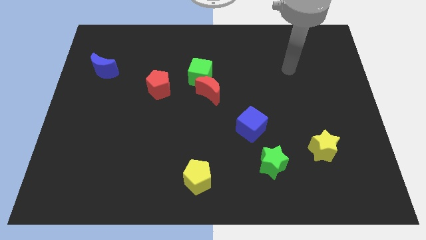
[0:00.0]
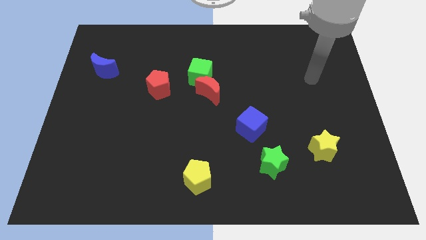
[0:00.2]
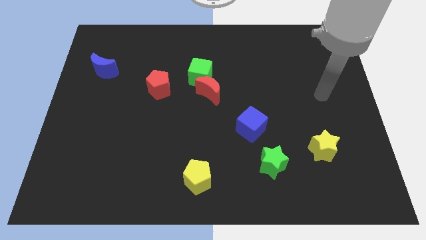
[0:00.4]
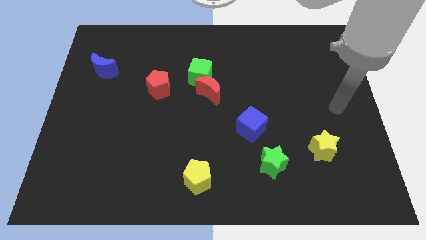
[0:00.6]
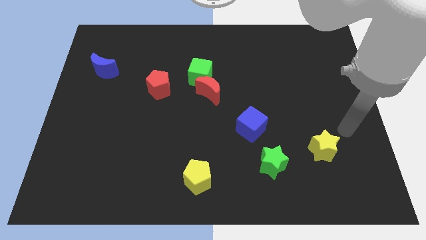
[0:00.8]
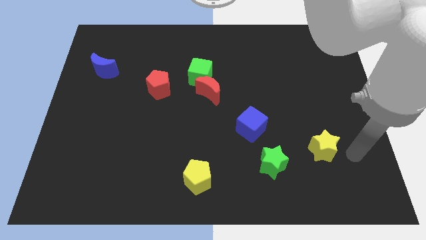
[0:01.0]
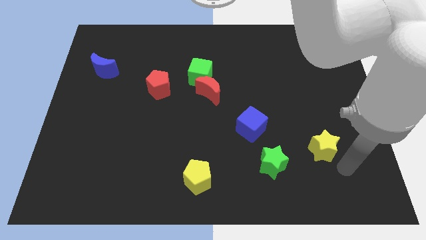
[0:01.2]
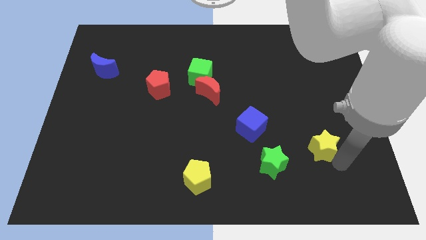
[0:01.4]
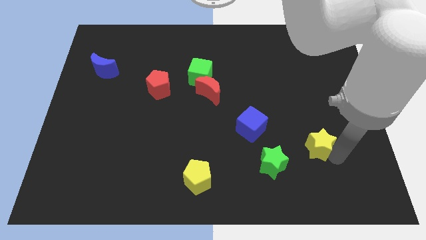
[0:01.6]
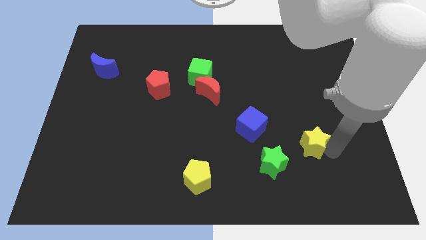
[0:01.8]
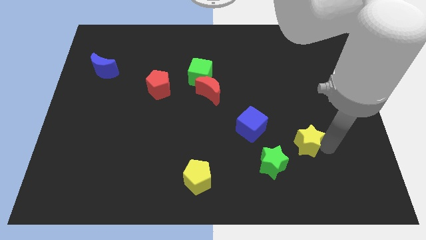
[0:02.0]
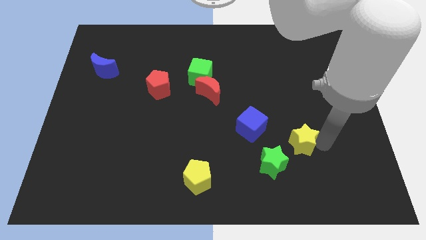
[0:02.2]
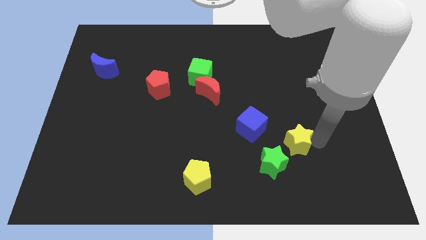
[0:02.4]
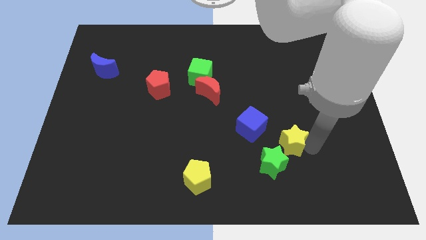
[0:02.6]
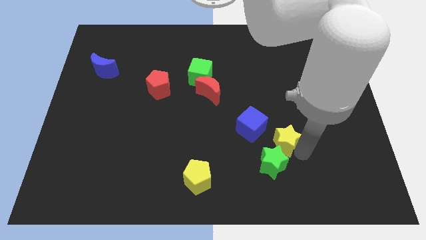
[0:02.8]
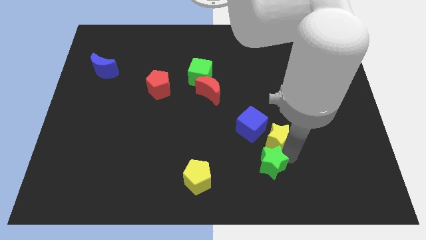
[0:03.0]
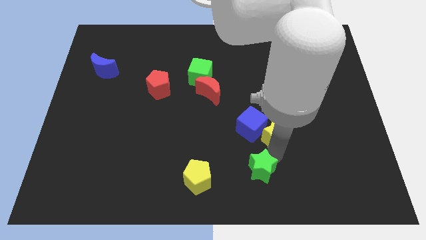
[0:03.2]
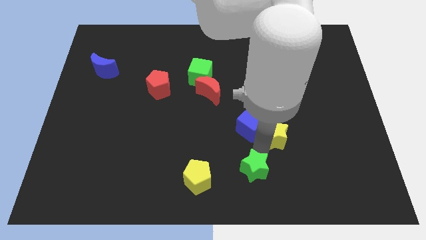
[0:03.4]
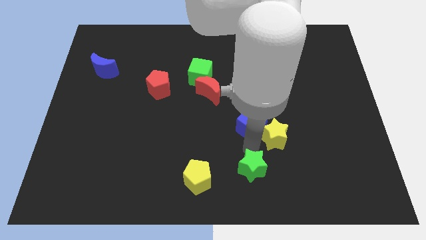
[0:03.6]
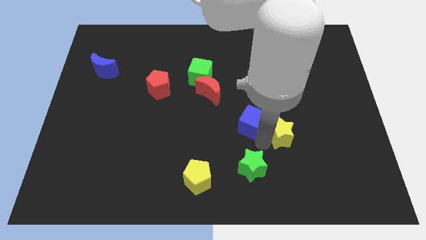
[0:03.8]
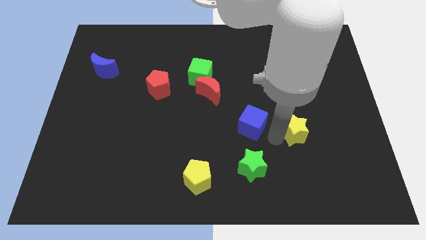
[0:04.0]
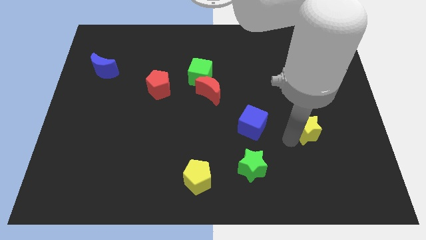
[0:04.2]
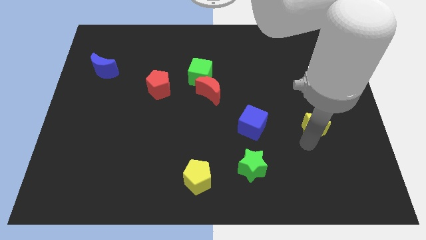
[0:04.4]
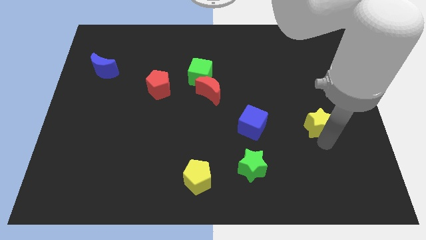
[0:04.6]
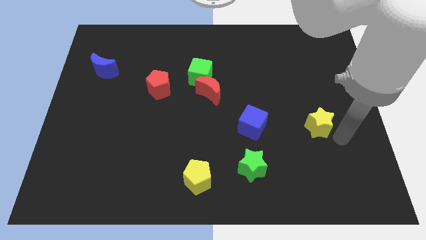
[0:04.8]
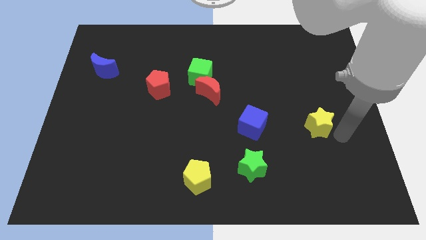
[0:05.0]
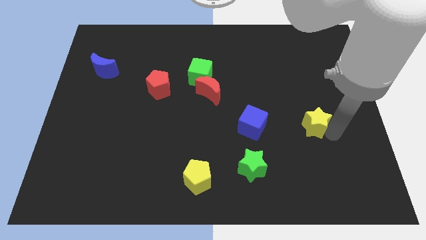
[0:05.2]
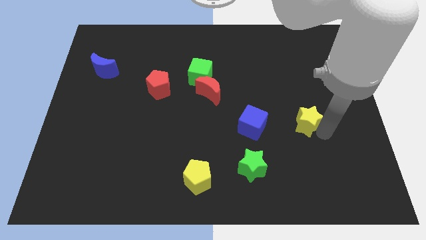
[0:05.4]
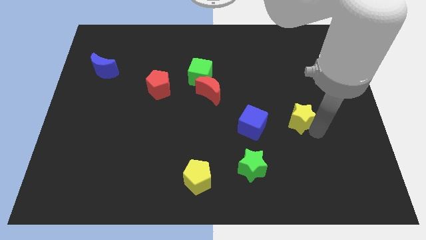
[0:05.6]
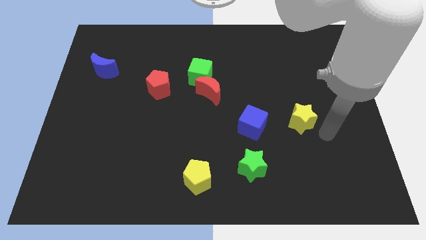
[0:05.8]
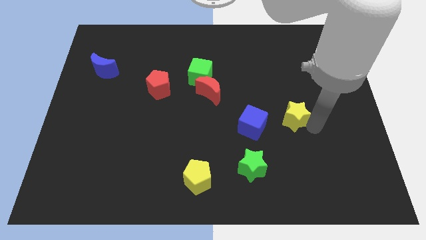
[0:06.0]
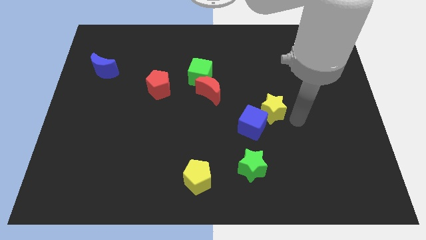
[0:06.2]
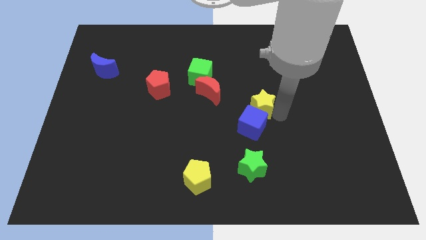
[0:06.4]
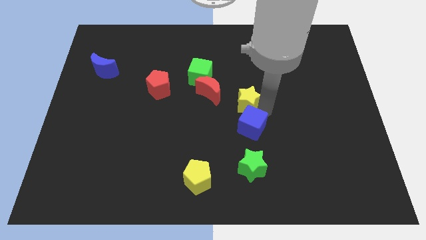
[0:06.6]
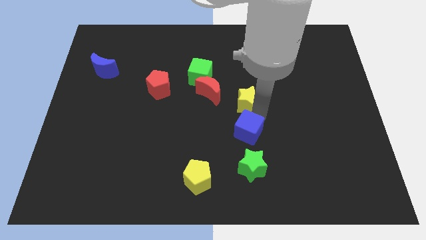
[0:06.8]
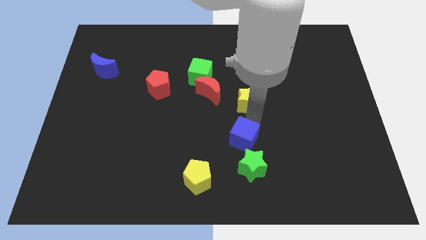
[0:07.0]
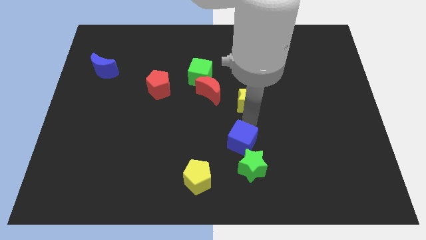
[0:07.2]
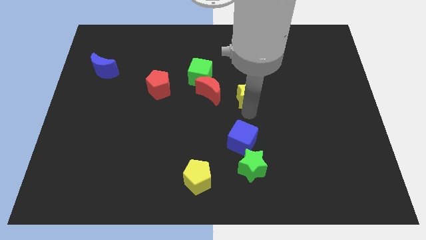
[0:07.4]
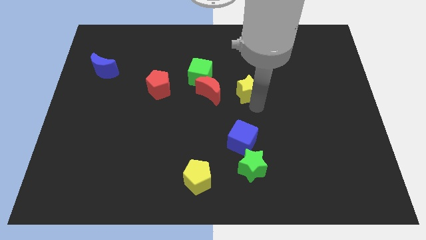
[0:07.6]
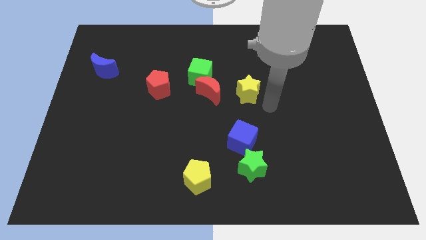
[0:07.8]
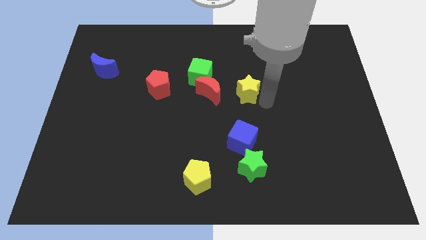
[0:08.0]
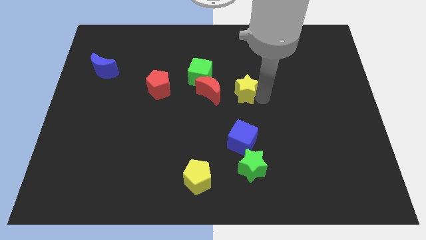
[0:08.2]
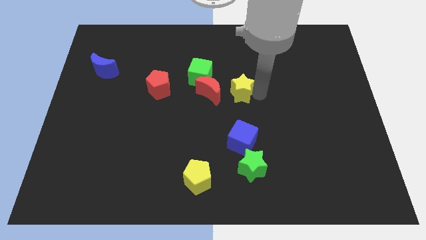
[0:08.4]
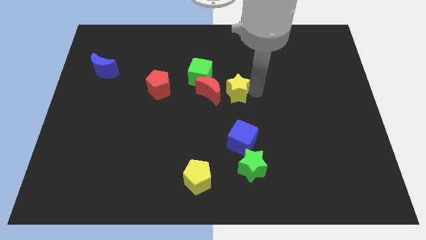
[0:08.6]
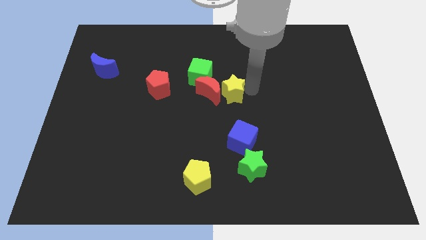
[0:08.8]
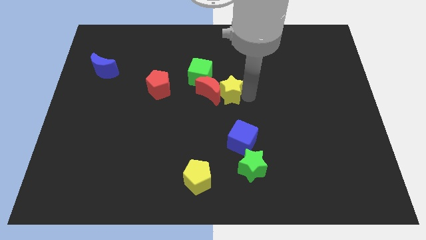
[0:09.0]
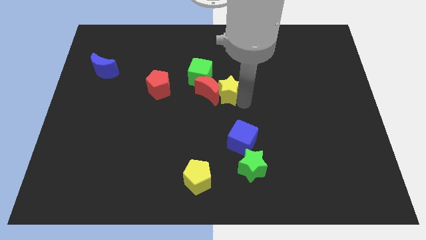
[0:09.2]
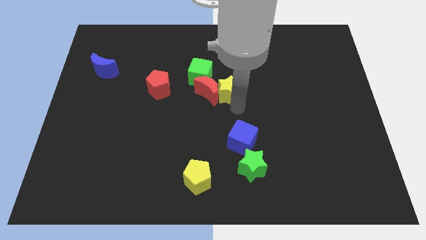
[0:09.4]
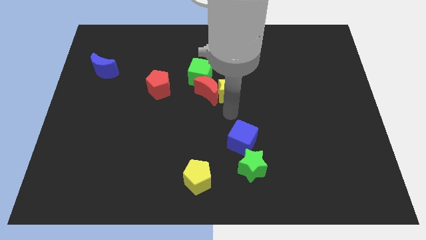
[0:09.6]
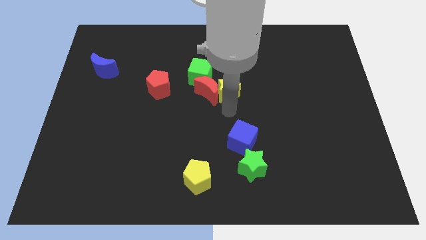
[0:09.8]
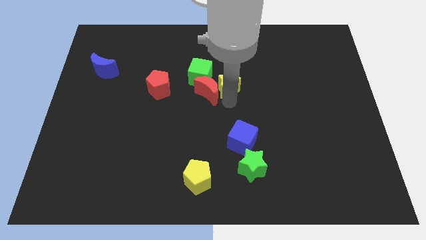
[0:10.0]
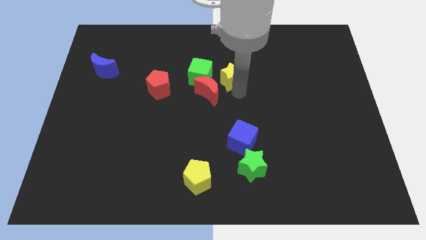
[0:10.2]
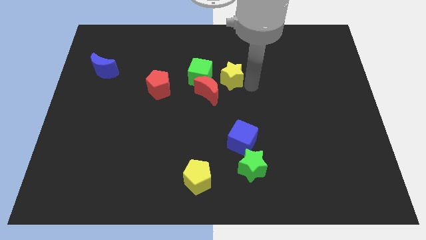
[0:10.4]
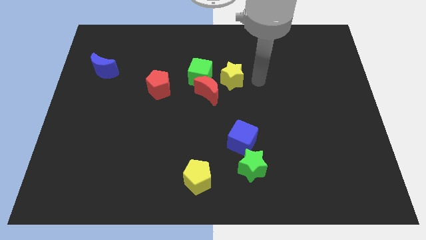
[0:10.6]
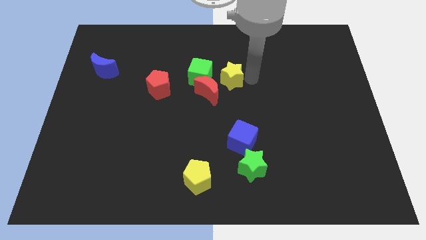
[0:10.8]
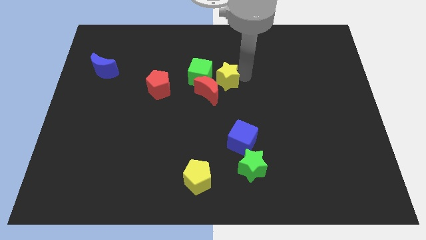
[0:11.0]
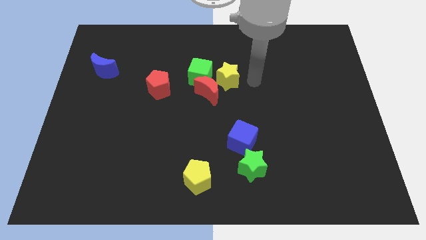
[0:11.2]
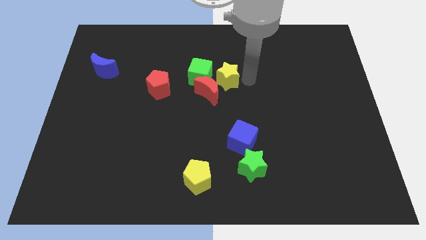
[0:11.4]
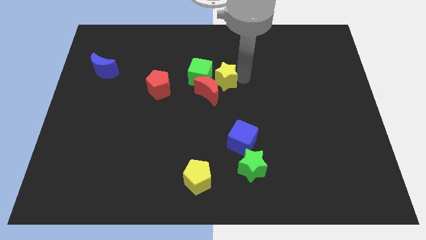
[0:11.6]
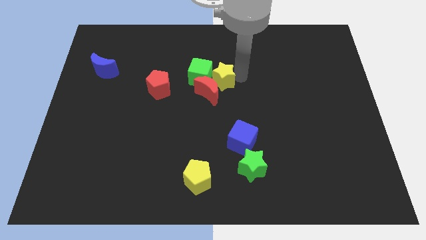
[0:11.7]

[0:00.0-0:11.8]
push the yellow star to the green cube

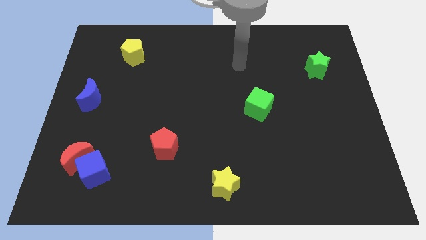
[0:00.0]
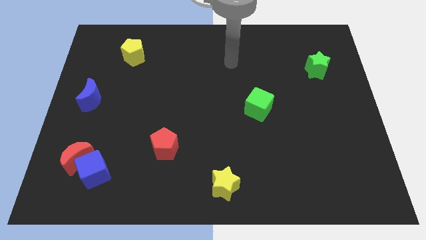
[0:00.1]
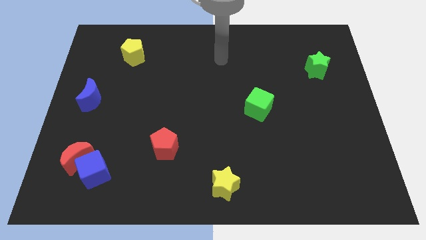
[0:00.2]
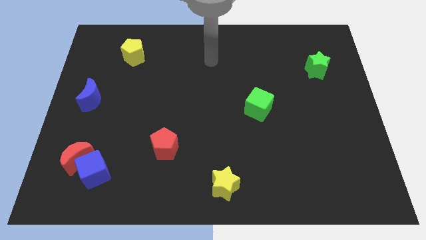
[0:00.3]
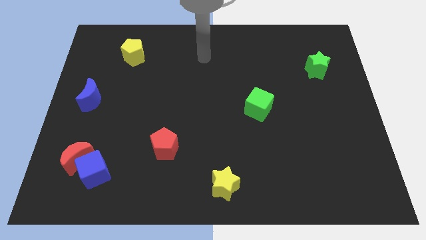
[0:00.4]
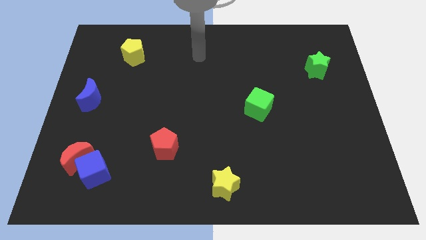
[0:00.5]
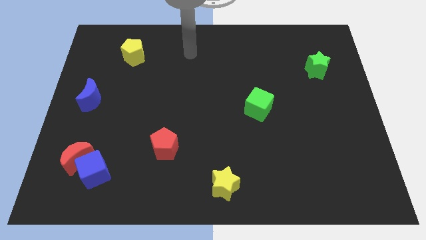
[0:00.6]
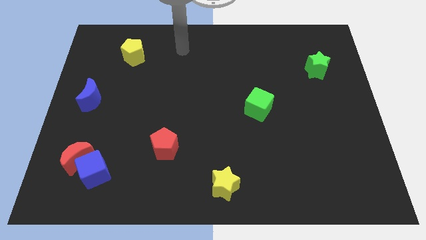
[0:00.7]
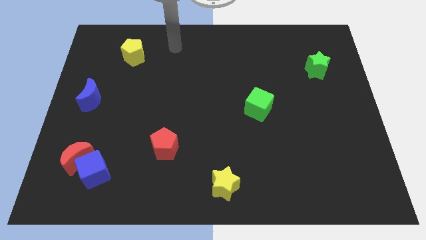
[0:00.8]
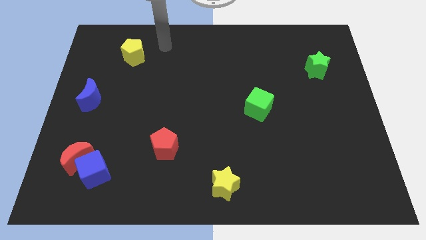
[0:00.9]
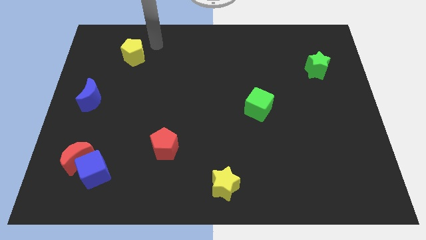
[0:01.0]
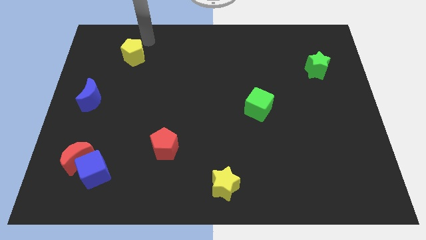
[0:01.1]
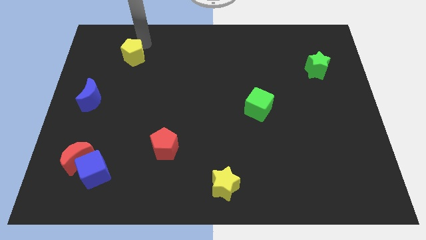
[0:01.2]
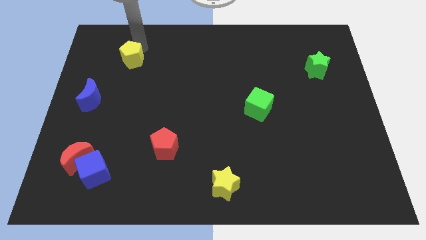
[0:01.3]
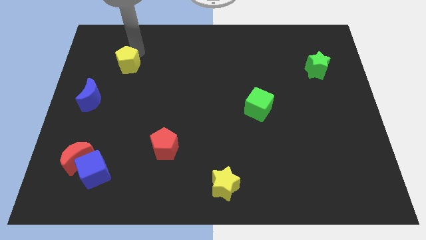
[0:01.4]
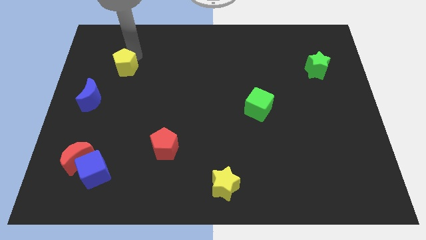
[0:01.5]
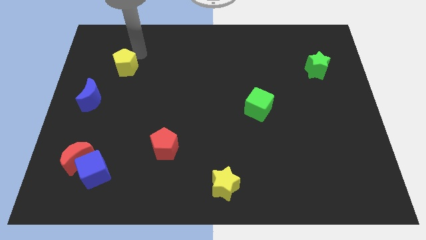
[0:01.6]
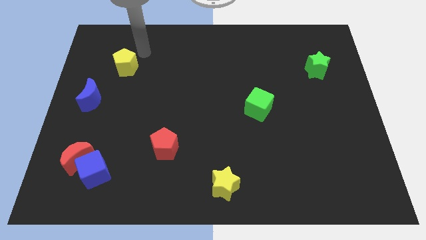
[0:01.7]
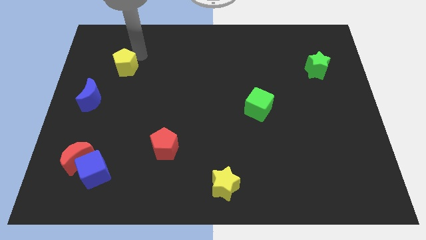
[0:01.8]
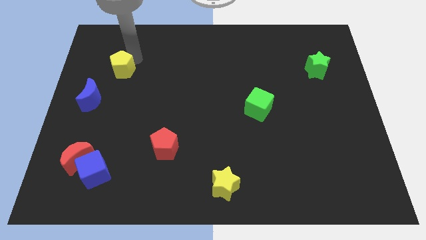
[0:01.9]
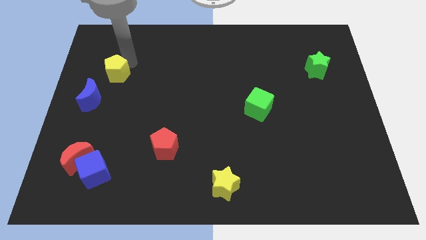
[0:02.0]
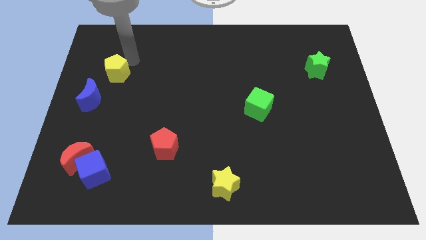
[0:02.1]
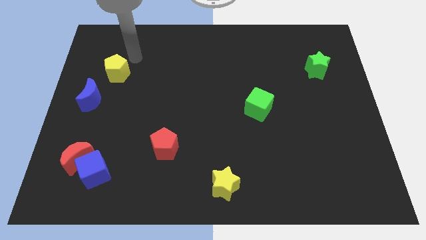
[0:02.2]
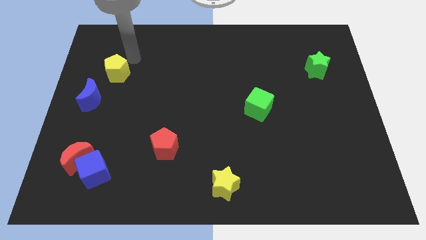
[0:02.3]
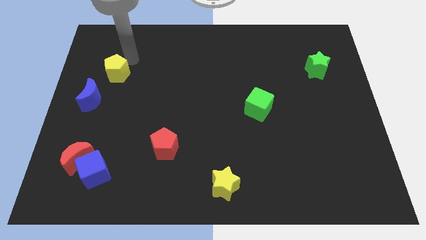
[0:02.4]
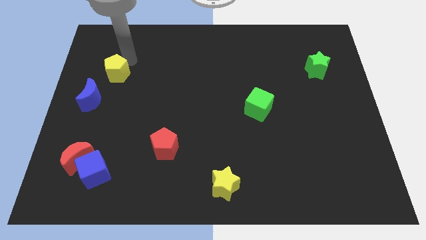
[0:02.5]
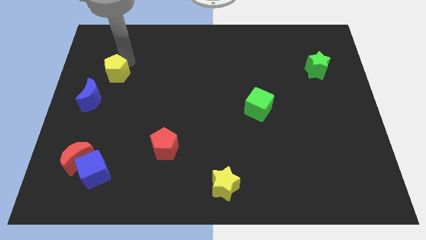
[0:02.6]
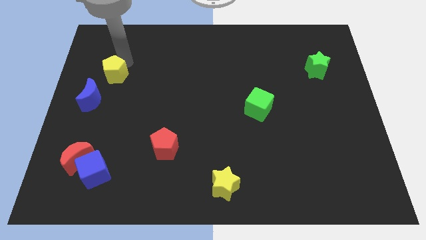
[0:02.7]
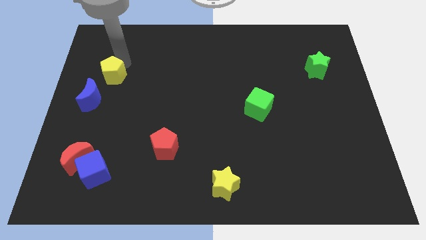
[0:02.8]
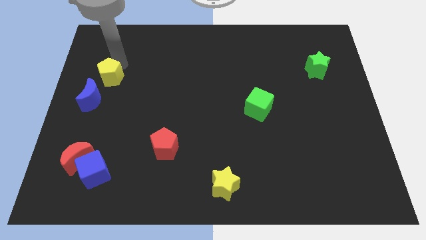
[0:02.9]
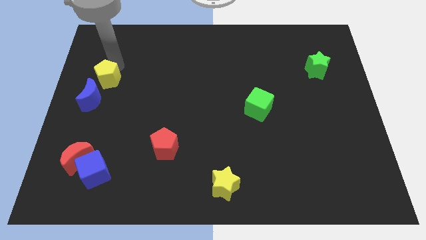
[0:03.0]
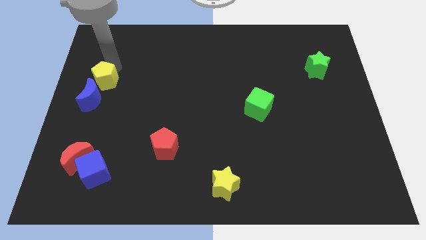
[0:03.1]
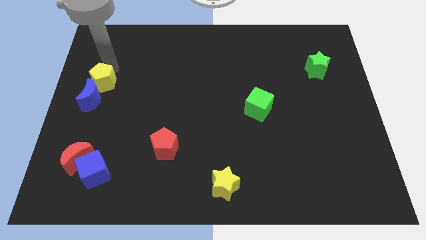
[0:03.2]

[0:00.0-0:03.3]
push the yellow pentagon next to the blue moon
